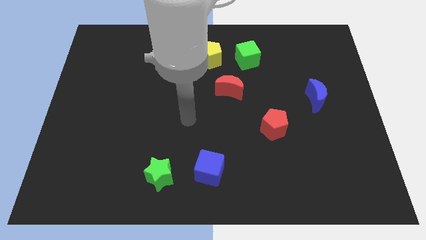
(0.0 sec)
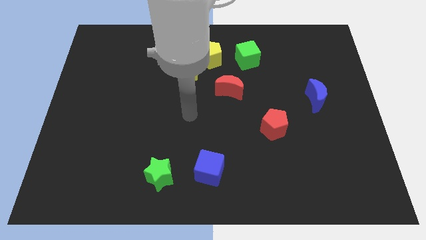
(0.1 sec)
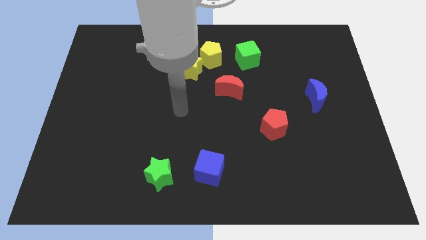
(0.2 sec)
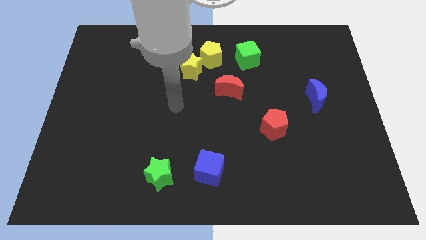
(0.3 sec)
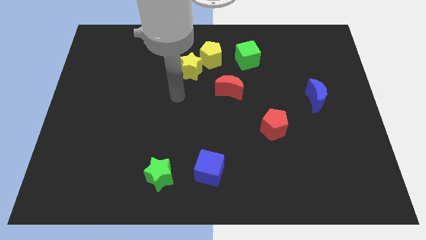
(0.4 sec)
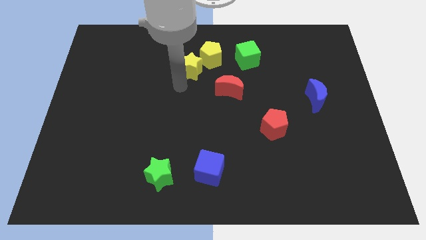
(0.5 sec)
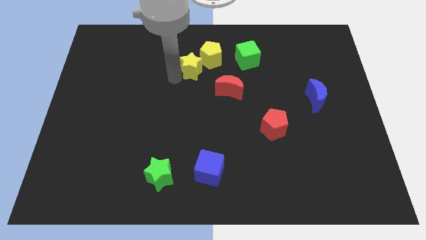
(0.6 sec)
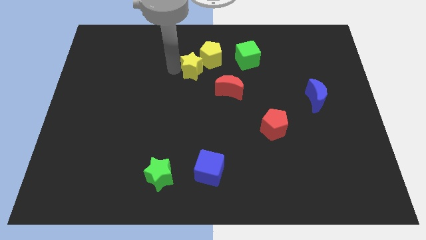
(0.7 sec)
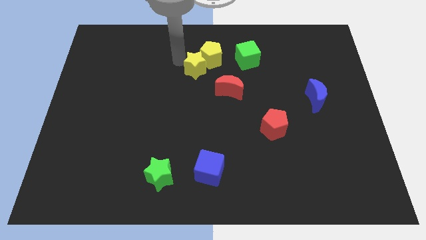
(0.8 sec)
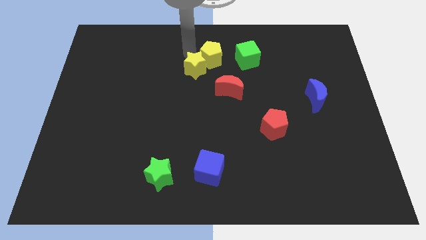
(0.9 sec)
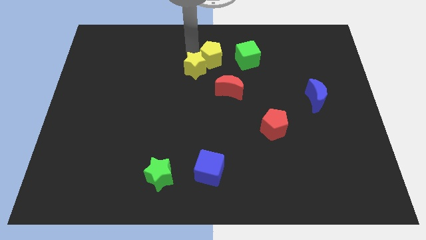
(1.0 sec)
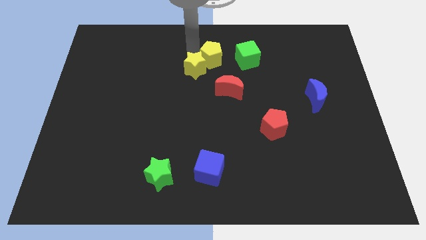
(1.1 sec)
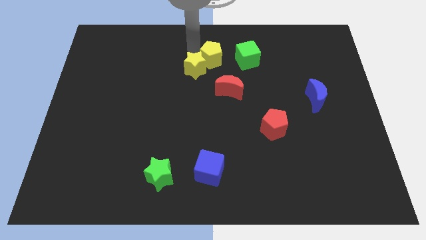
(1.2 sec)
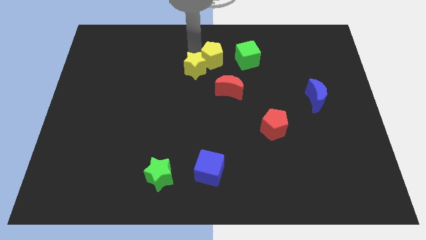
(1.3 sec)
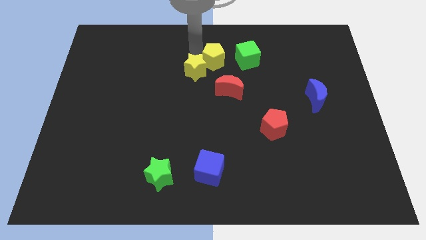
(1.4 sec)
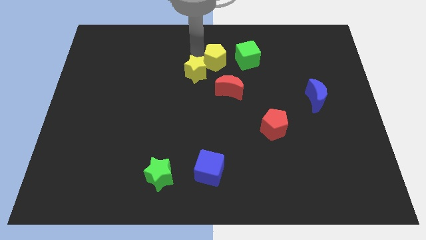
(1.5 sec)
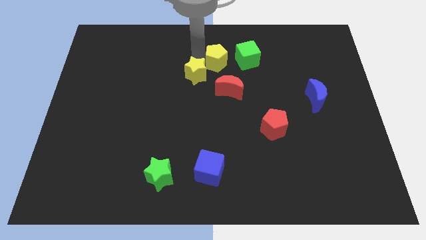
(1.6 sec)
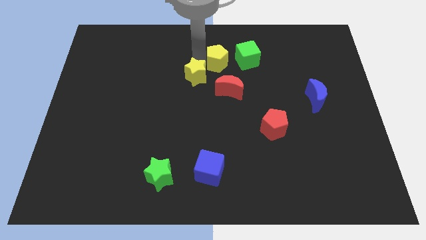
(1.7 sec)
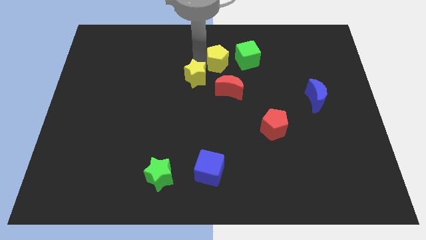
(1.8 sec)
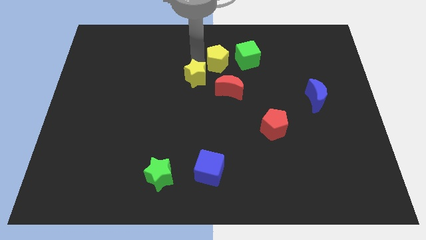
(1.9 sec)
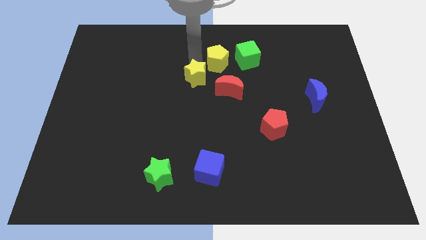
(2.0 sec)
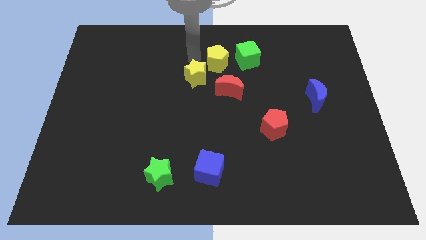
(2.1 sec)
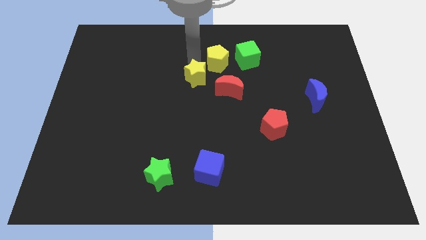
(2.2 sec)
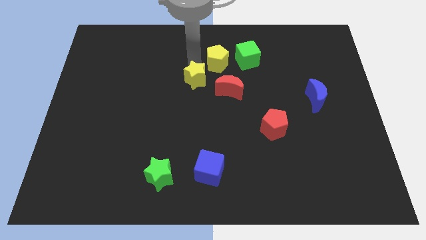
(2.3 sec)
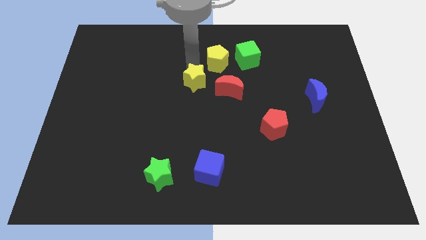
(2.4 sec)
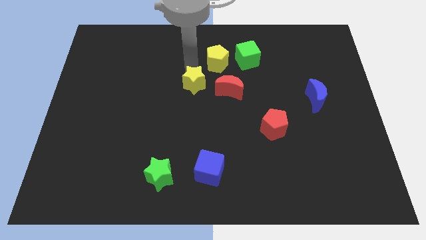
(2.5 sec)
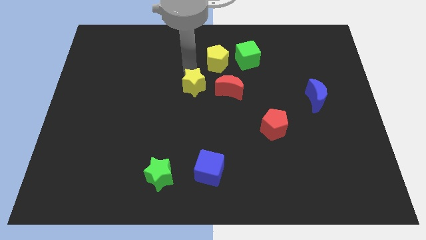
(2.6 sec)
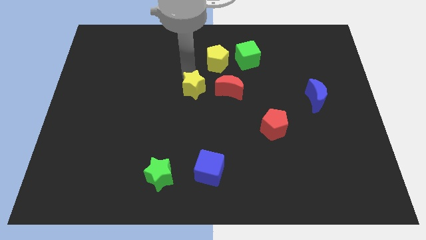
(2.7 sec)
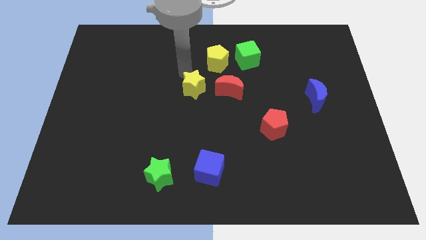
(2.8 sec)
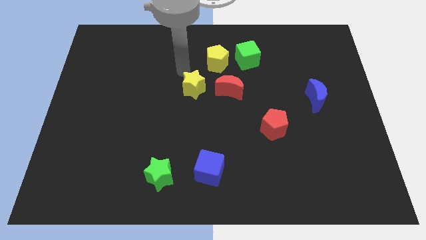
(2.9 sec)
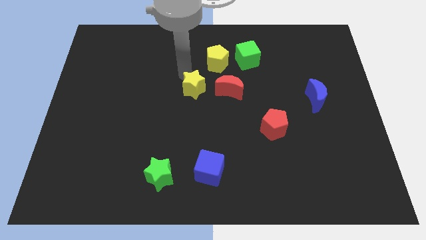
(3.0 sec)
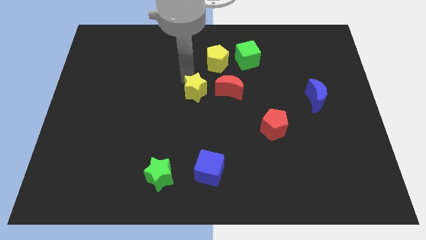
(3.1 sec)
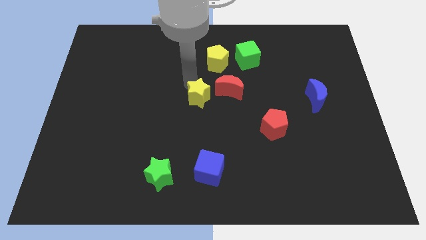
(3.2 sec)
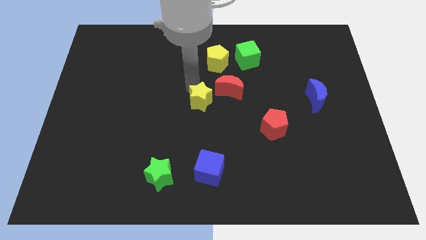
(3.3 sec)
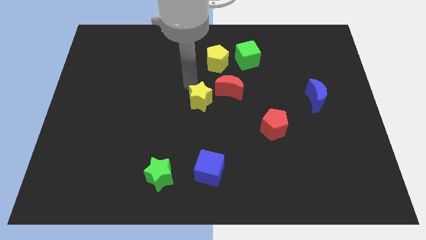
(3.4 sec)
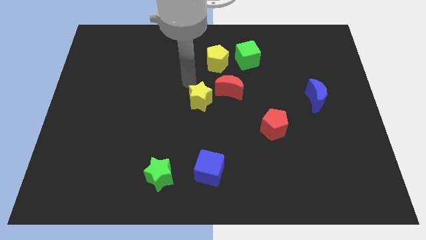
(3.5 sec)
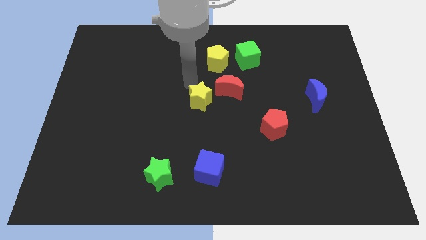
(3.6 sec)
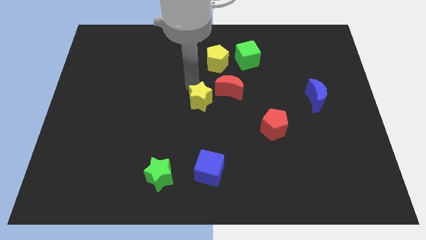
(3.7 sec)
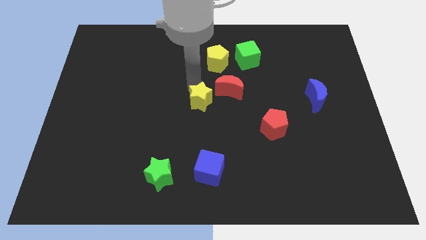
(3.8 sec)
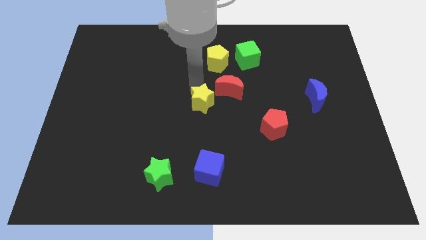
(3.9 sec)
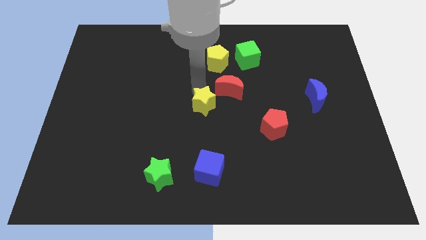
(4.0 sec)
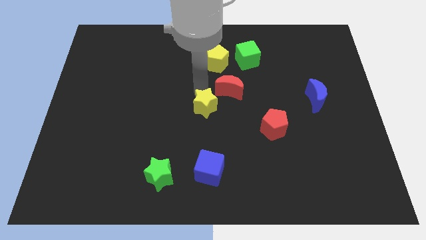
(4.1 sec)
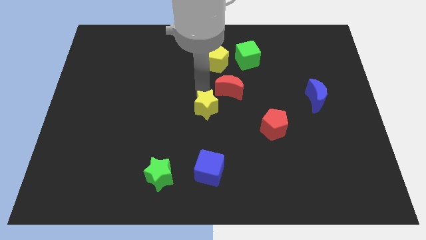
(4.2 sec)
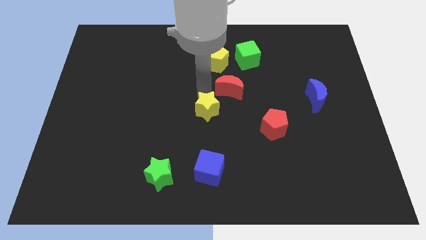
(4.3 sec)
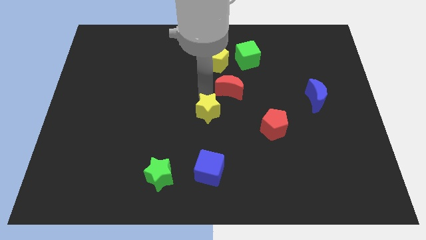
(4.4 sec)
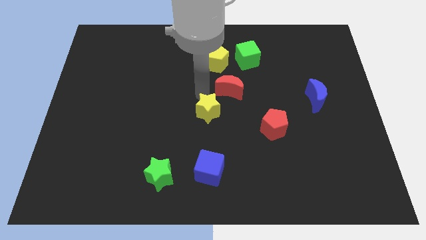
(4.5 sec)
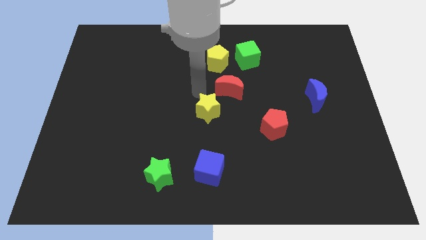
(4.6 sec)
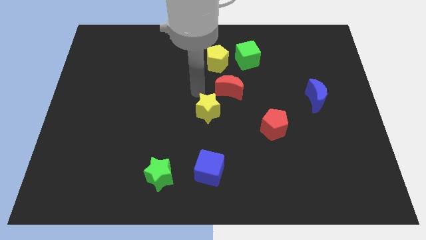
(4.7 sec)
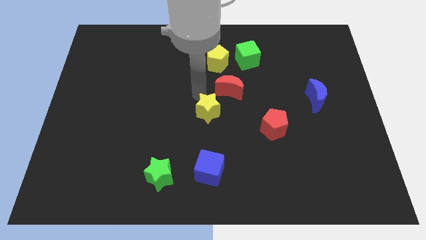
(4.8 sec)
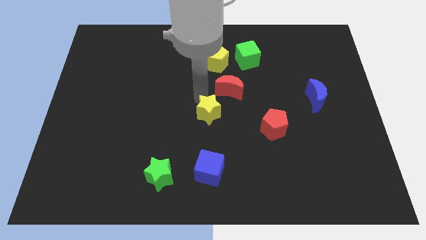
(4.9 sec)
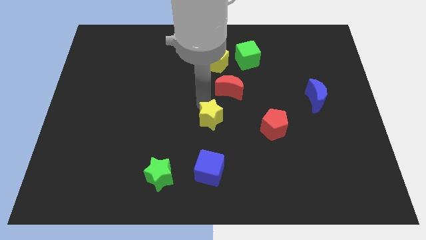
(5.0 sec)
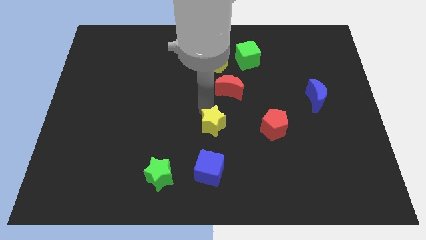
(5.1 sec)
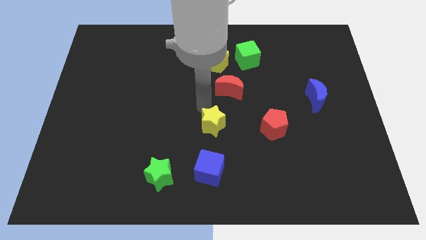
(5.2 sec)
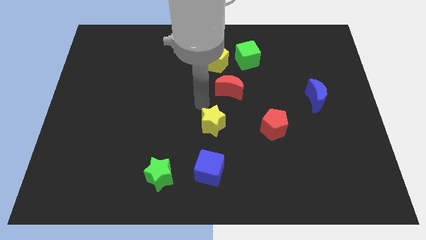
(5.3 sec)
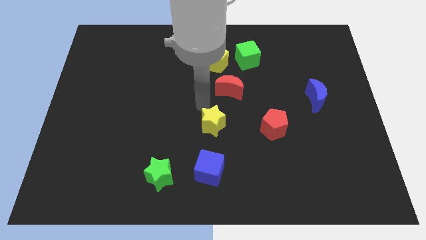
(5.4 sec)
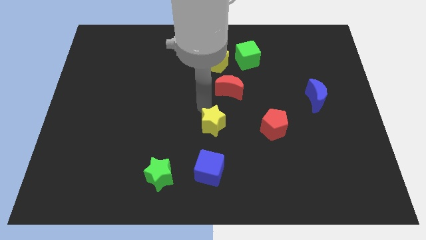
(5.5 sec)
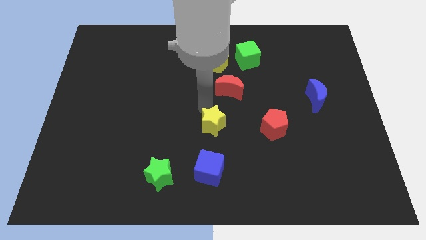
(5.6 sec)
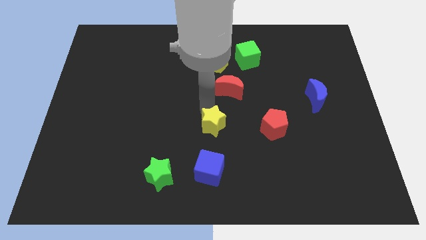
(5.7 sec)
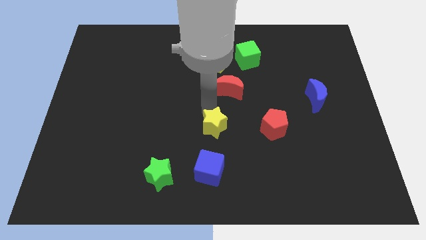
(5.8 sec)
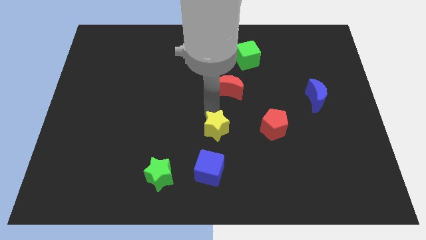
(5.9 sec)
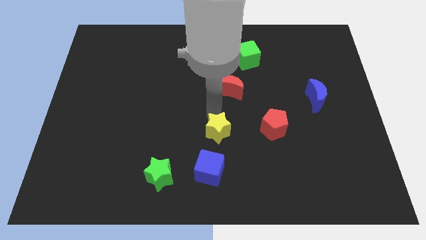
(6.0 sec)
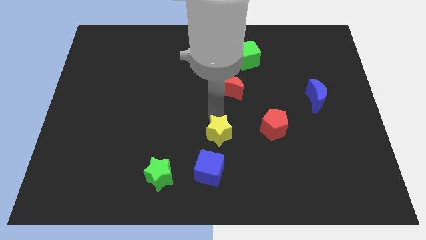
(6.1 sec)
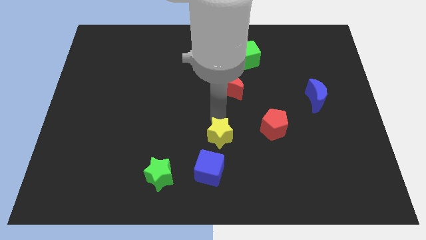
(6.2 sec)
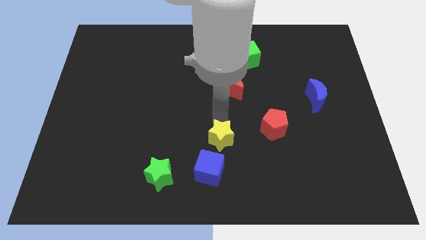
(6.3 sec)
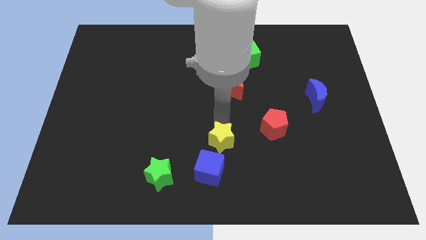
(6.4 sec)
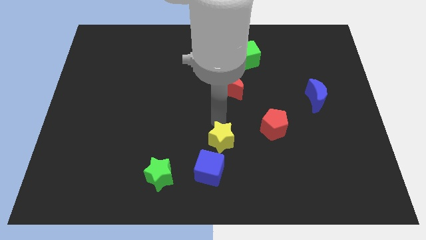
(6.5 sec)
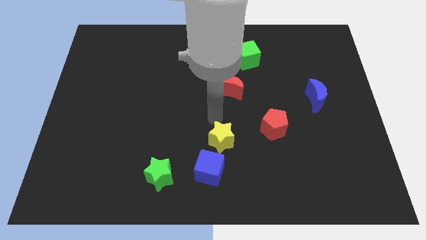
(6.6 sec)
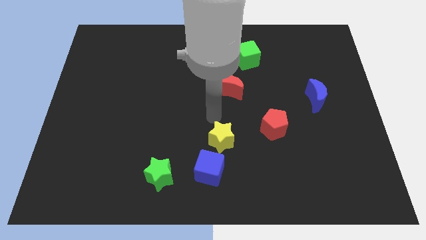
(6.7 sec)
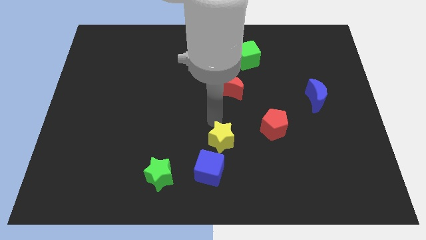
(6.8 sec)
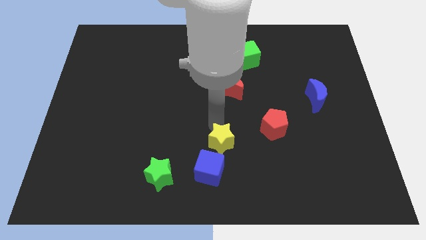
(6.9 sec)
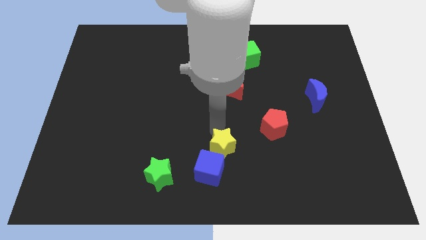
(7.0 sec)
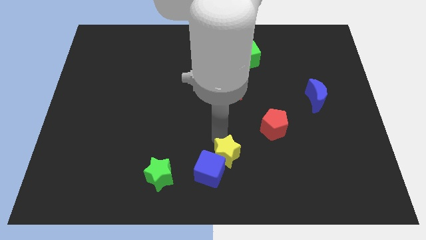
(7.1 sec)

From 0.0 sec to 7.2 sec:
push the yellow star to the bottom side
